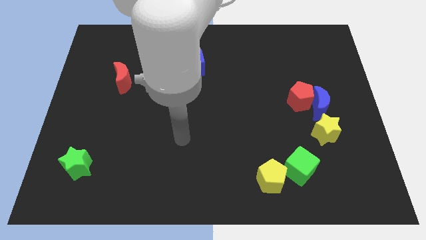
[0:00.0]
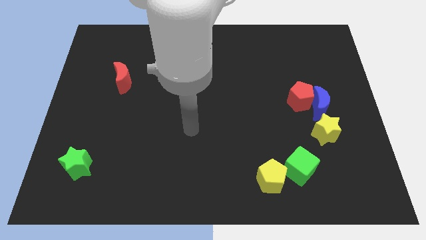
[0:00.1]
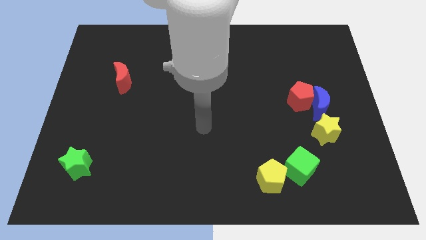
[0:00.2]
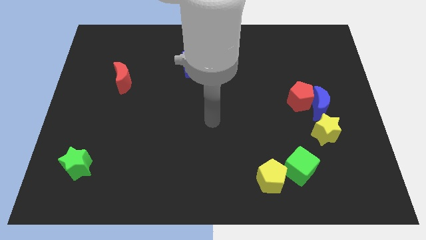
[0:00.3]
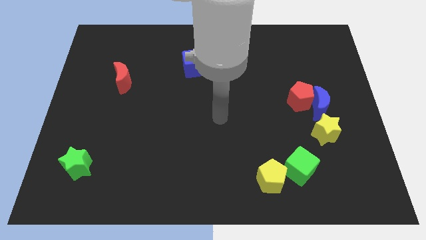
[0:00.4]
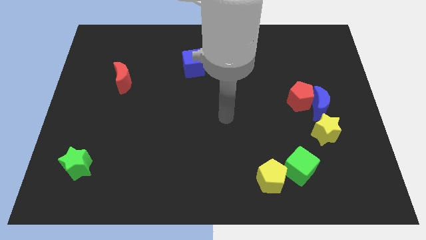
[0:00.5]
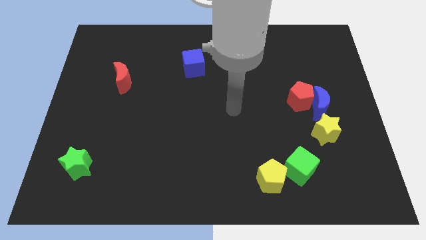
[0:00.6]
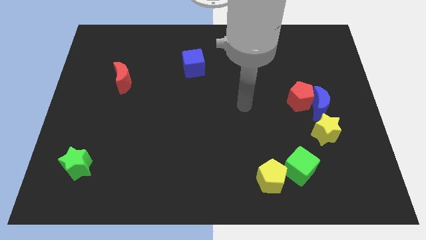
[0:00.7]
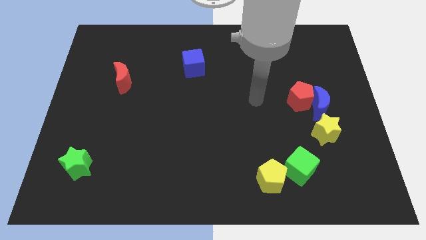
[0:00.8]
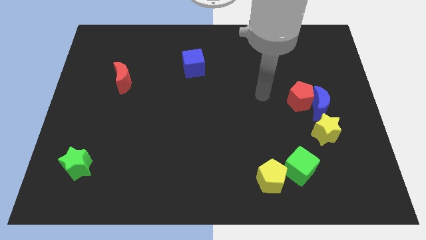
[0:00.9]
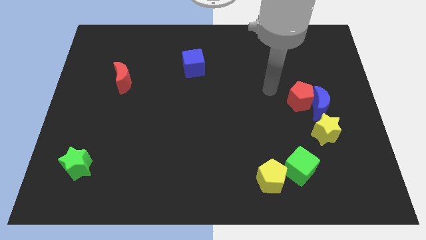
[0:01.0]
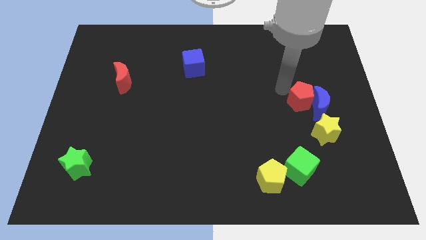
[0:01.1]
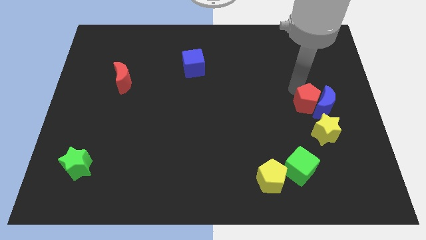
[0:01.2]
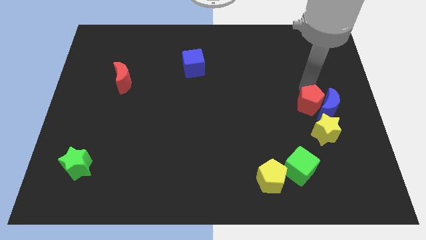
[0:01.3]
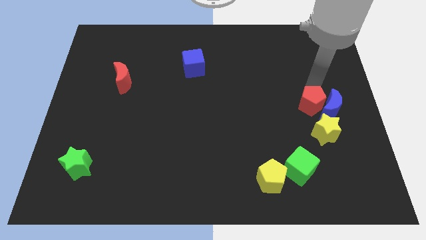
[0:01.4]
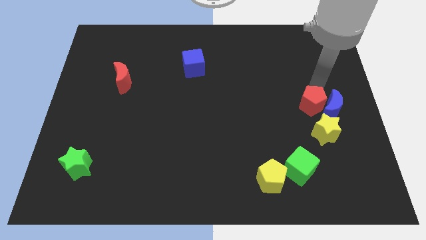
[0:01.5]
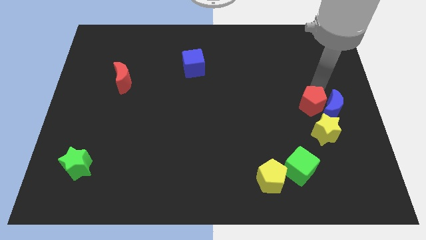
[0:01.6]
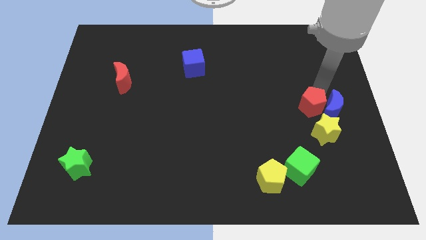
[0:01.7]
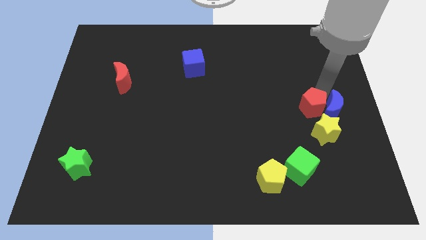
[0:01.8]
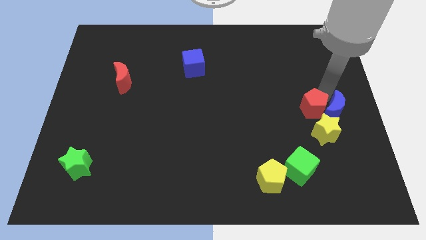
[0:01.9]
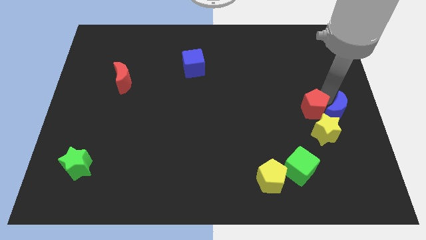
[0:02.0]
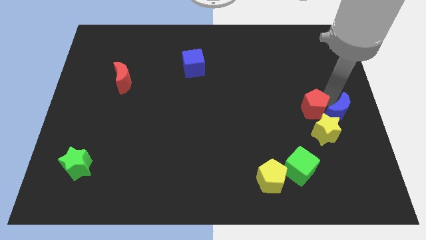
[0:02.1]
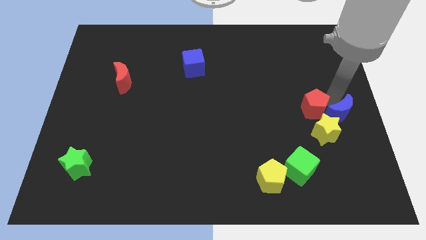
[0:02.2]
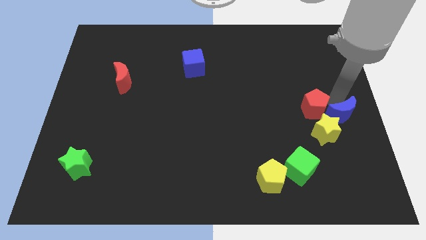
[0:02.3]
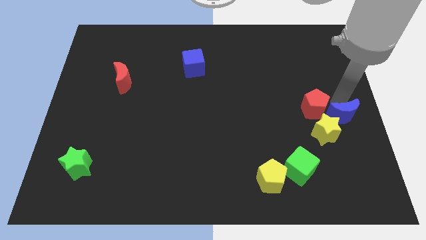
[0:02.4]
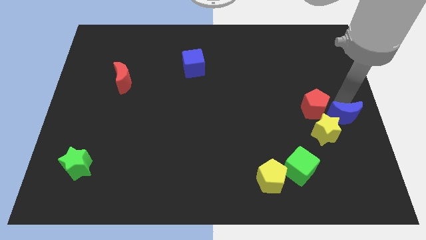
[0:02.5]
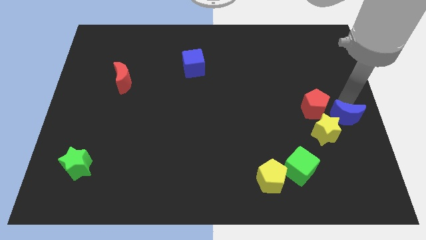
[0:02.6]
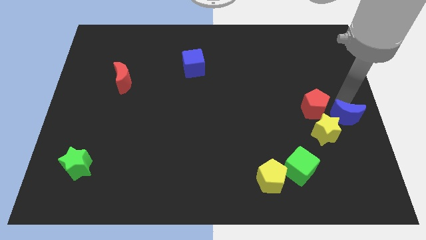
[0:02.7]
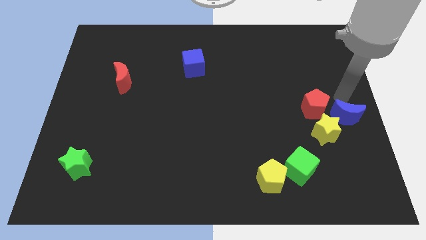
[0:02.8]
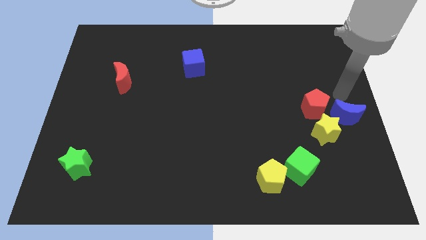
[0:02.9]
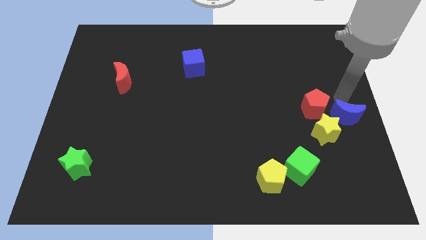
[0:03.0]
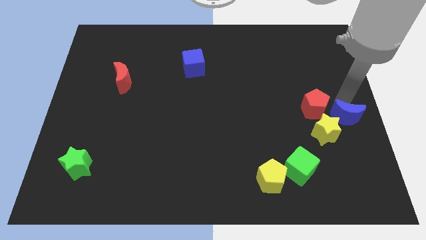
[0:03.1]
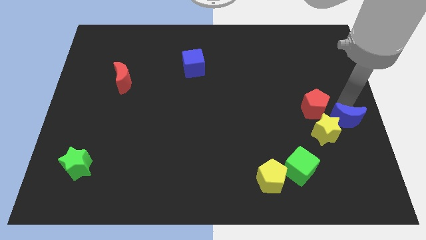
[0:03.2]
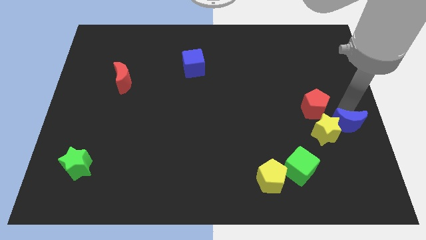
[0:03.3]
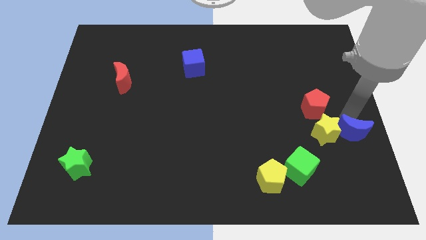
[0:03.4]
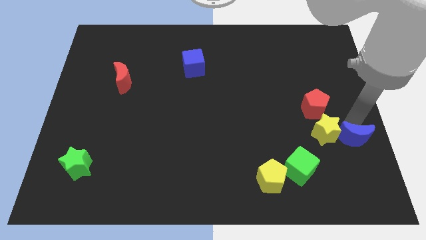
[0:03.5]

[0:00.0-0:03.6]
slightly move the blue moon down

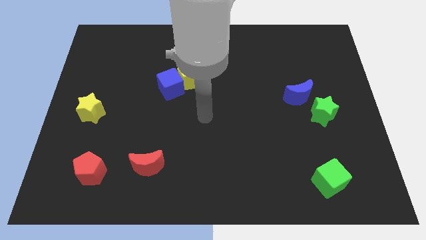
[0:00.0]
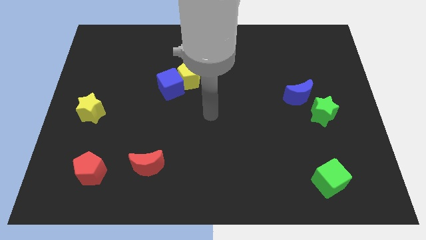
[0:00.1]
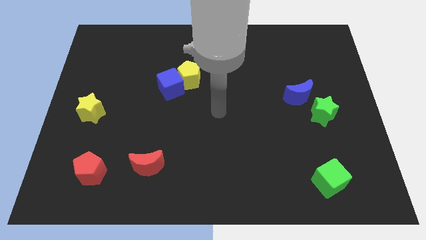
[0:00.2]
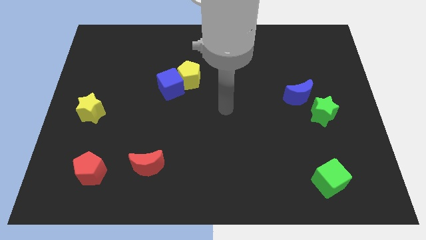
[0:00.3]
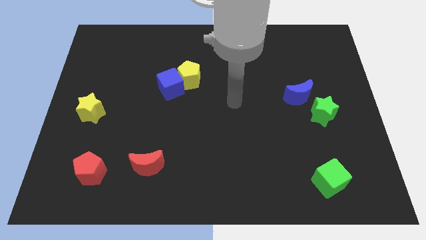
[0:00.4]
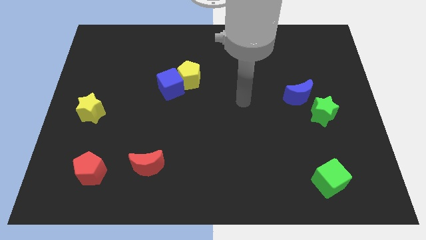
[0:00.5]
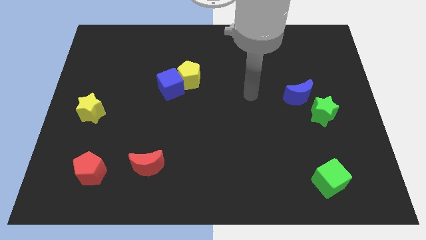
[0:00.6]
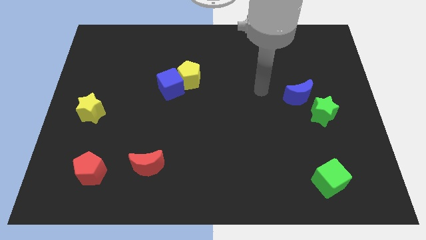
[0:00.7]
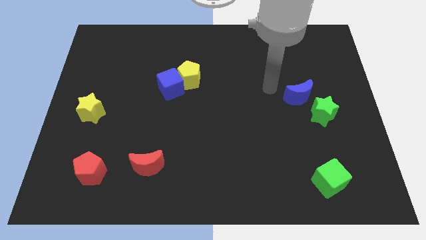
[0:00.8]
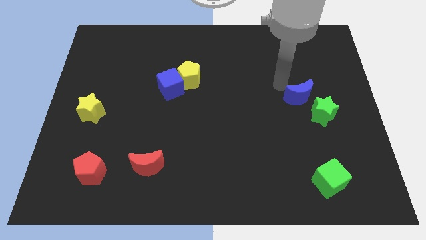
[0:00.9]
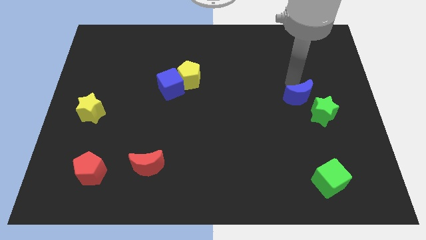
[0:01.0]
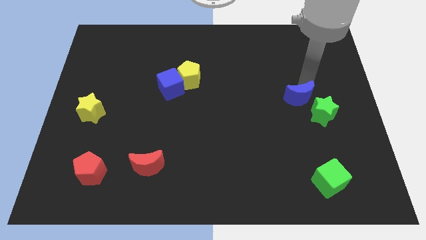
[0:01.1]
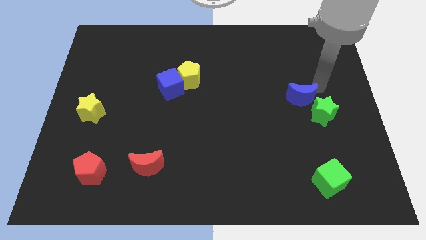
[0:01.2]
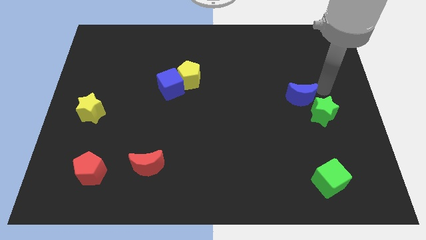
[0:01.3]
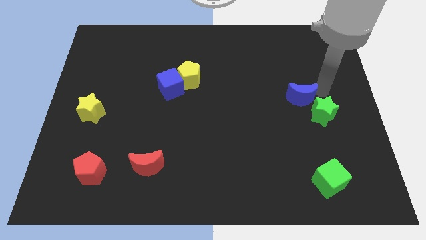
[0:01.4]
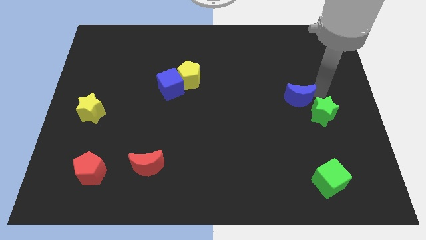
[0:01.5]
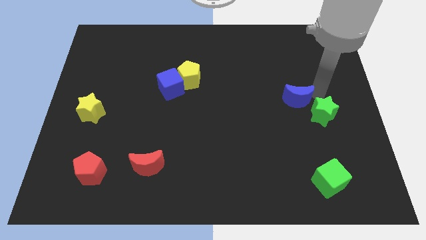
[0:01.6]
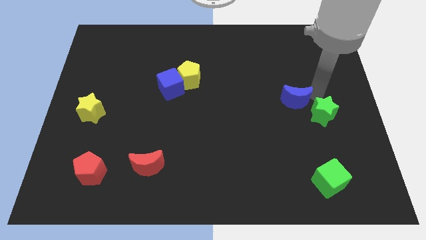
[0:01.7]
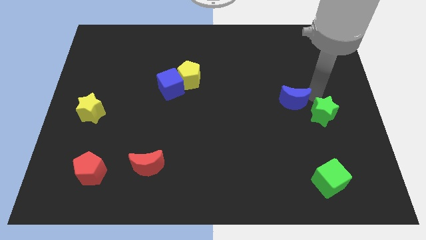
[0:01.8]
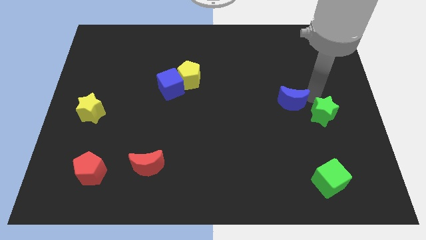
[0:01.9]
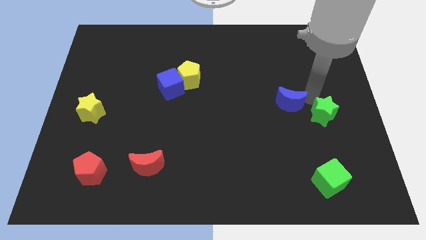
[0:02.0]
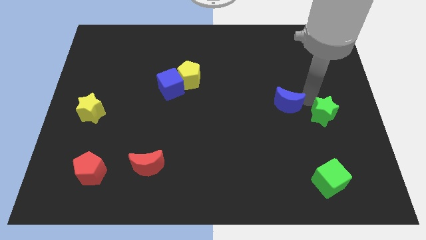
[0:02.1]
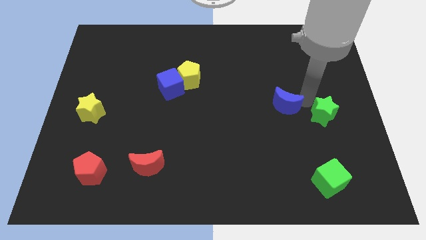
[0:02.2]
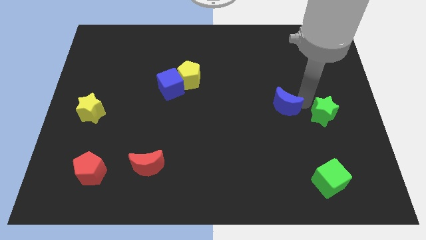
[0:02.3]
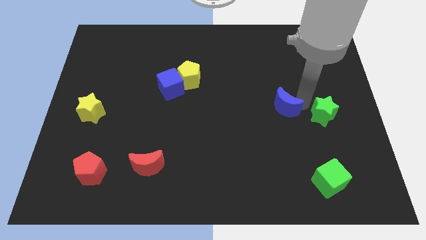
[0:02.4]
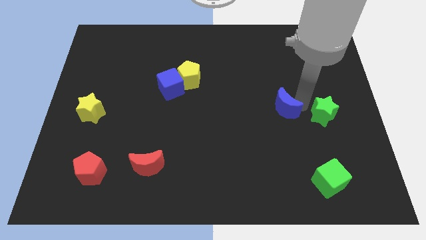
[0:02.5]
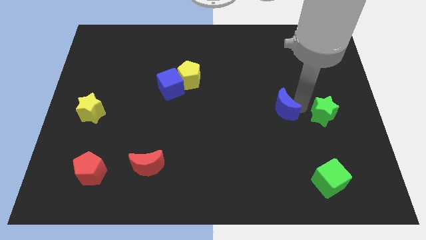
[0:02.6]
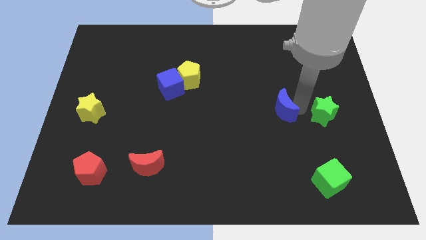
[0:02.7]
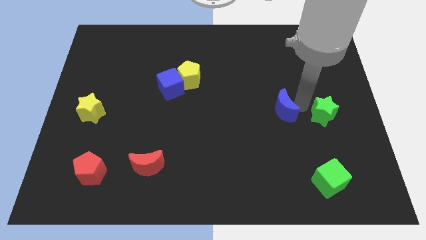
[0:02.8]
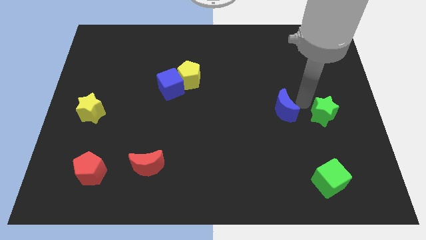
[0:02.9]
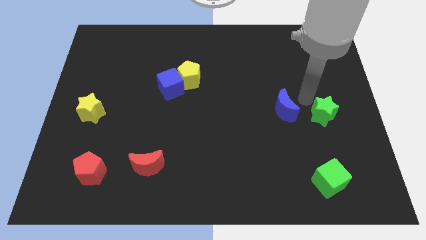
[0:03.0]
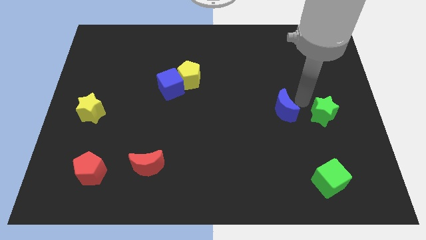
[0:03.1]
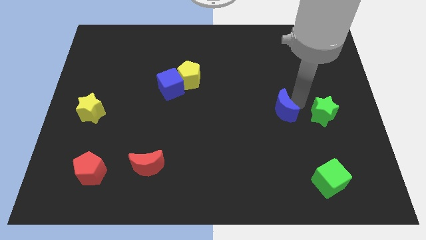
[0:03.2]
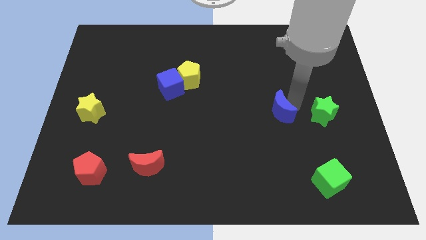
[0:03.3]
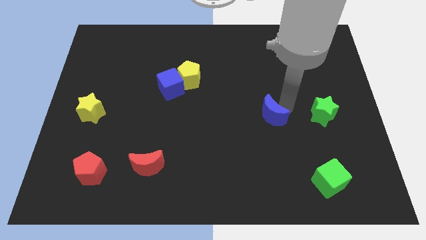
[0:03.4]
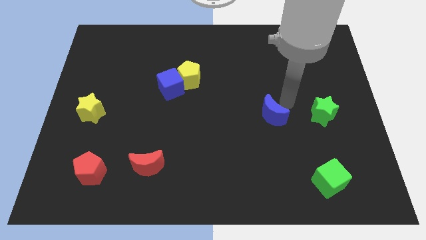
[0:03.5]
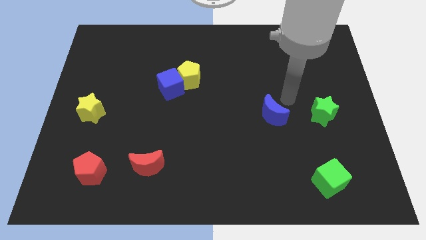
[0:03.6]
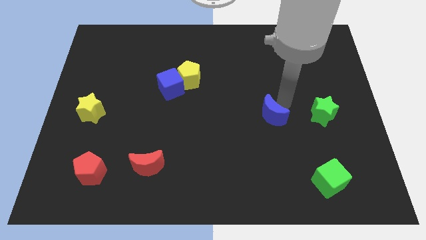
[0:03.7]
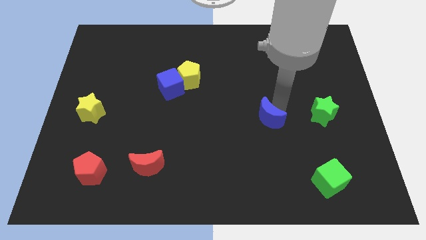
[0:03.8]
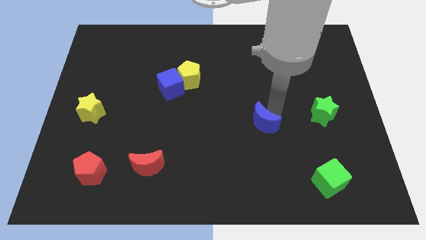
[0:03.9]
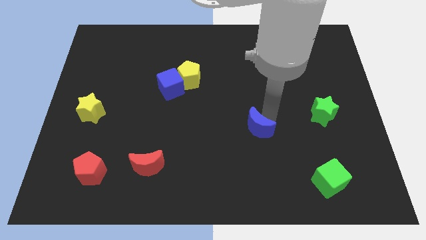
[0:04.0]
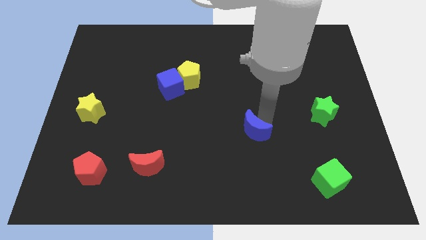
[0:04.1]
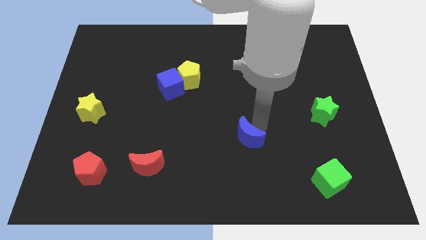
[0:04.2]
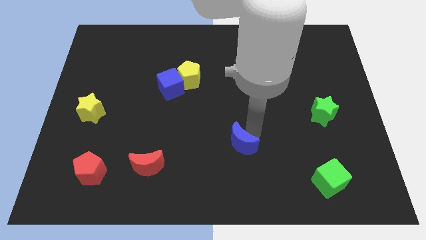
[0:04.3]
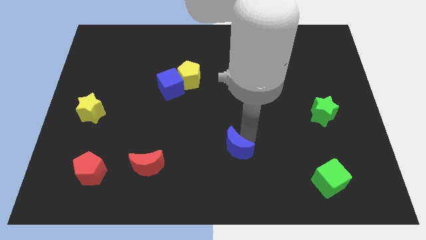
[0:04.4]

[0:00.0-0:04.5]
move the blue moon downwards and to the left
